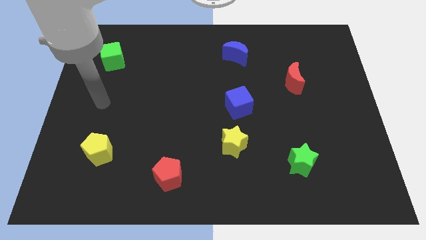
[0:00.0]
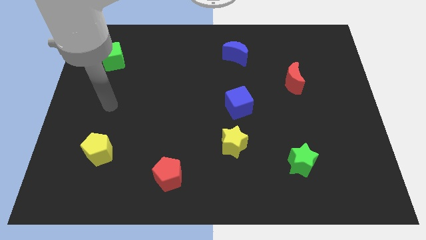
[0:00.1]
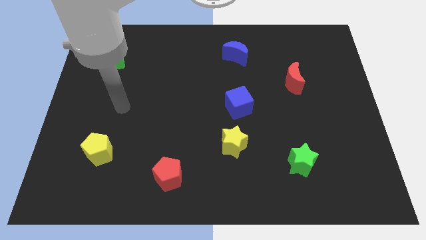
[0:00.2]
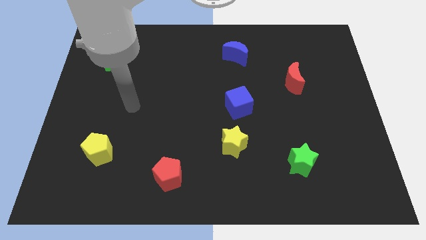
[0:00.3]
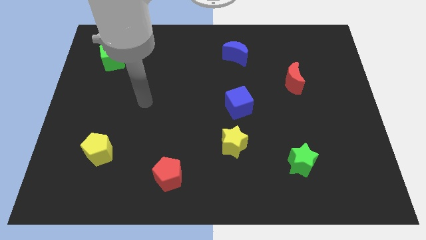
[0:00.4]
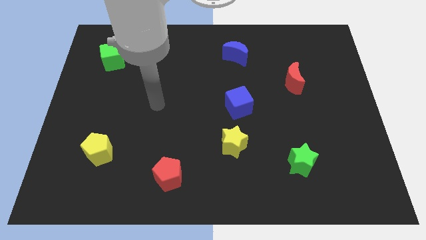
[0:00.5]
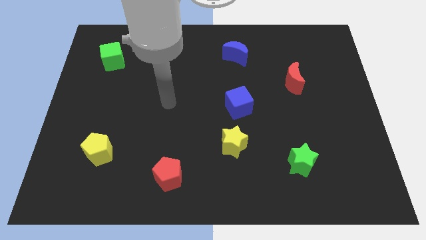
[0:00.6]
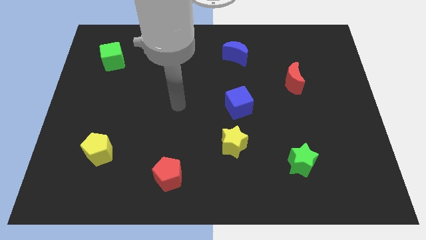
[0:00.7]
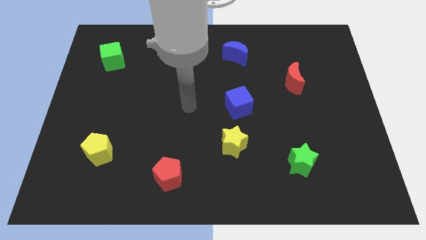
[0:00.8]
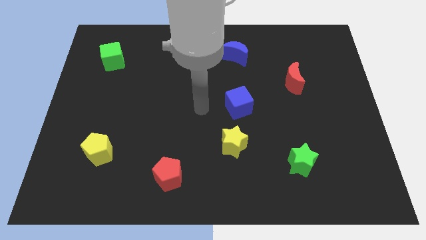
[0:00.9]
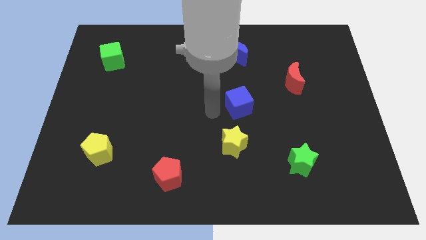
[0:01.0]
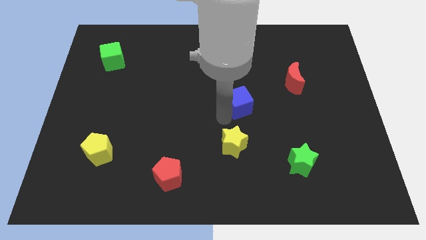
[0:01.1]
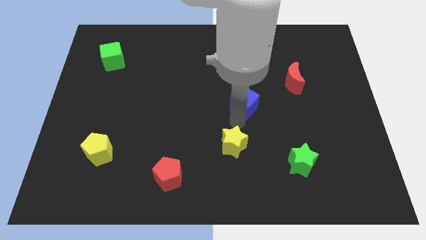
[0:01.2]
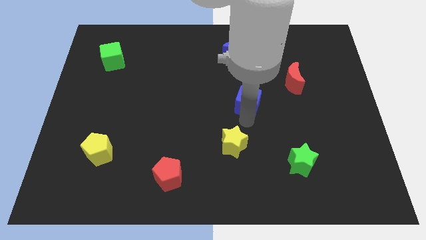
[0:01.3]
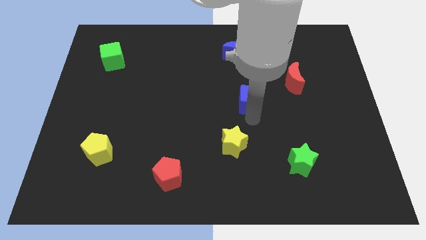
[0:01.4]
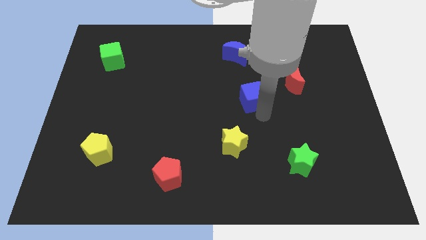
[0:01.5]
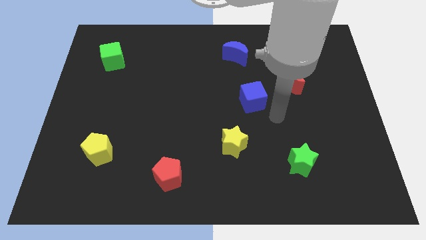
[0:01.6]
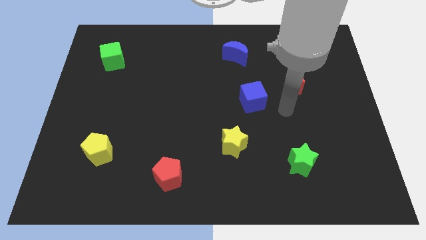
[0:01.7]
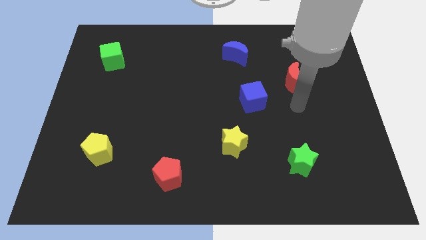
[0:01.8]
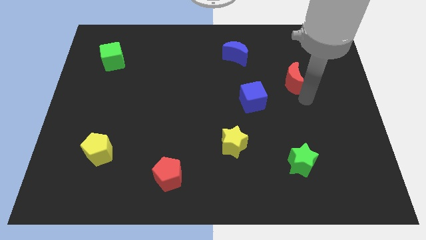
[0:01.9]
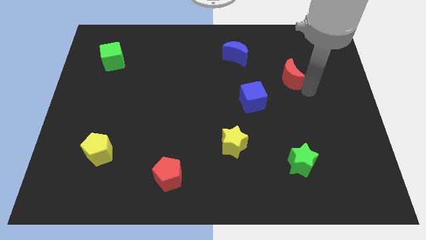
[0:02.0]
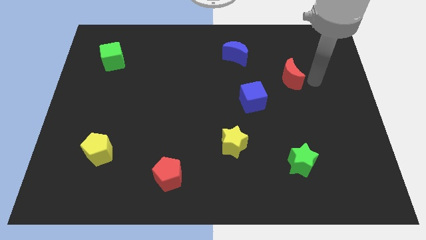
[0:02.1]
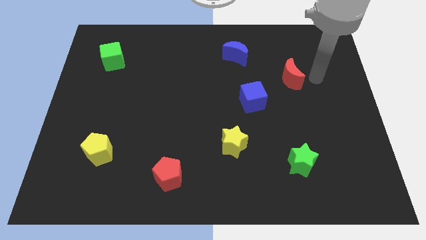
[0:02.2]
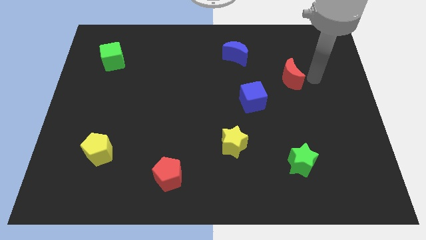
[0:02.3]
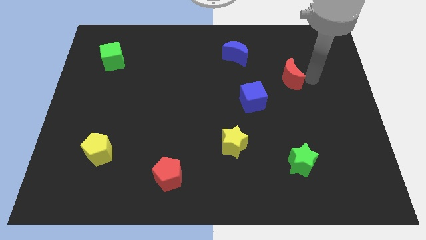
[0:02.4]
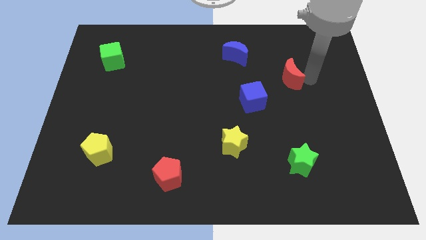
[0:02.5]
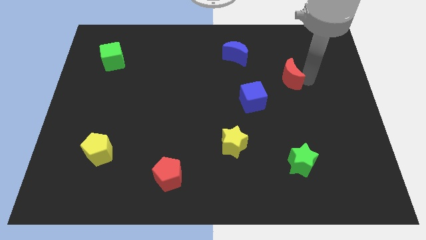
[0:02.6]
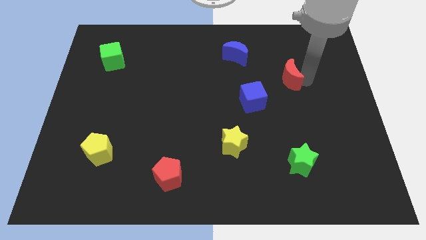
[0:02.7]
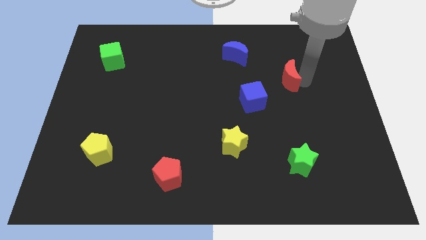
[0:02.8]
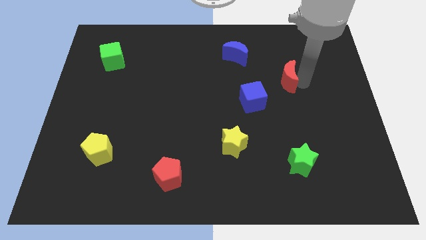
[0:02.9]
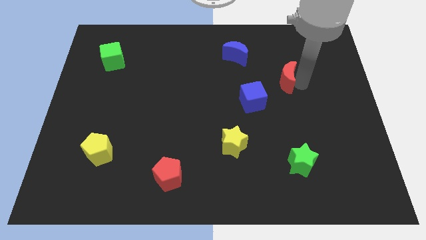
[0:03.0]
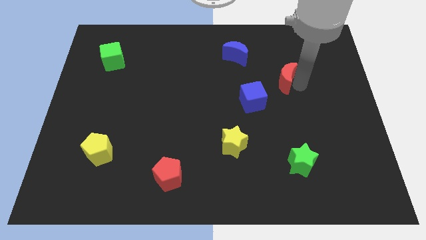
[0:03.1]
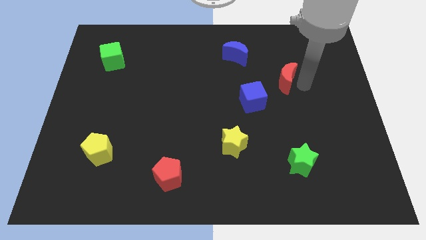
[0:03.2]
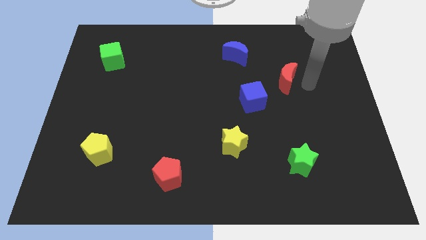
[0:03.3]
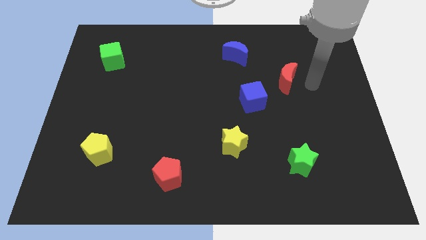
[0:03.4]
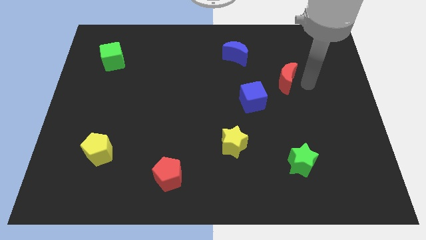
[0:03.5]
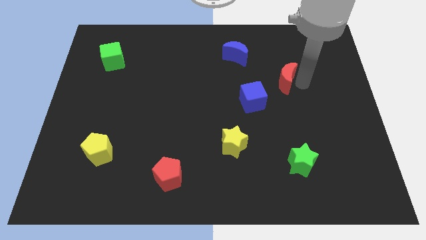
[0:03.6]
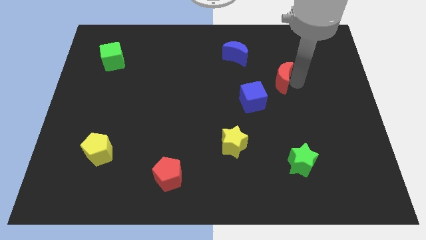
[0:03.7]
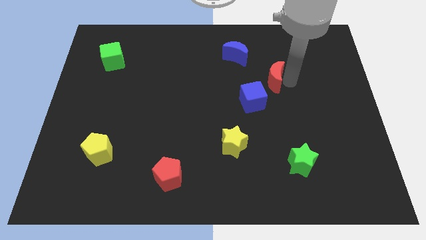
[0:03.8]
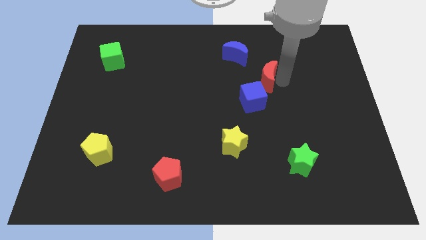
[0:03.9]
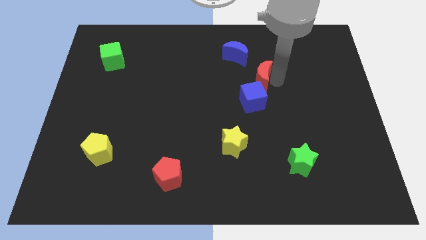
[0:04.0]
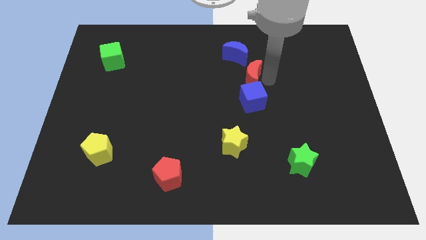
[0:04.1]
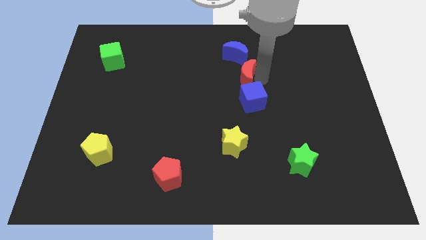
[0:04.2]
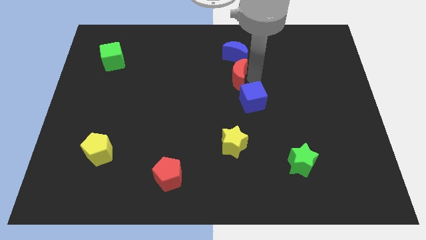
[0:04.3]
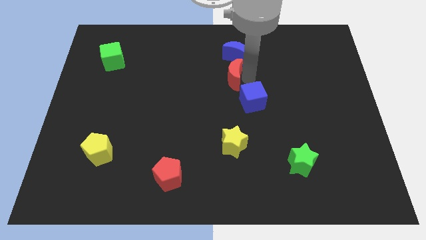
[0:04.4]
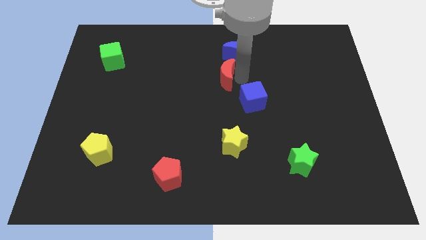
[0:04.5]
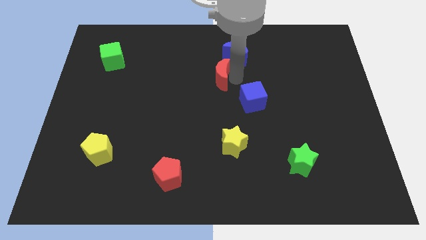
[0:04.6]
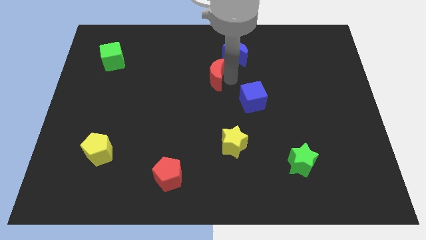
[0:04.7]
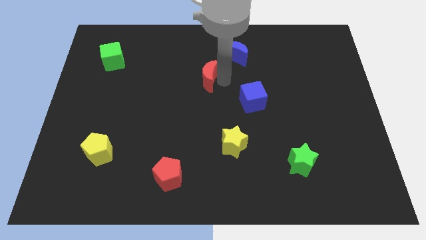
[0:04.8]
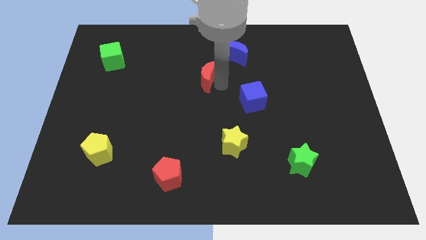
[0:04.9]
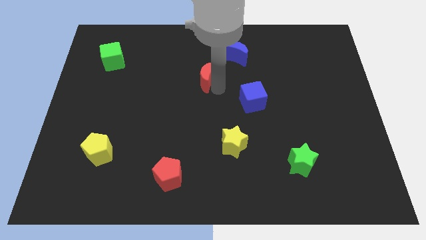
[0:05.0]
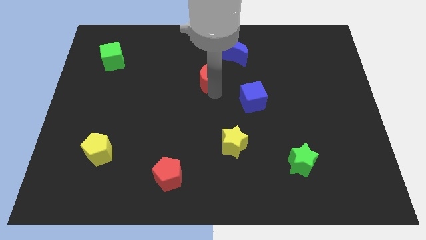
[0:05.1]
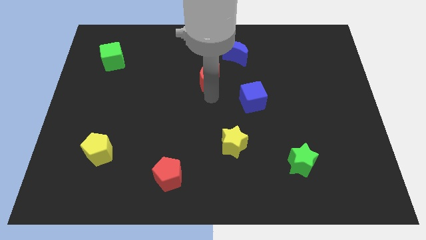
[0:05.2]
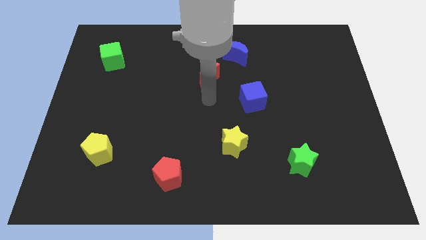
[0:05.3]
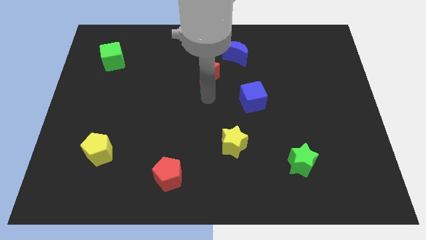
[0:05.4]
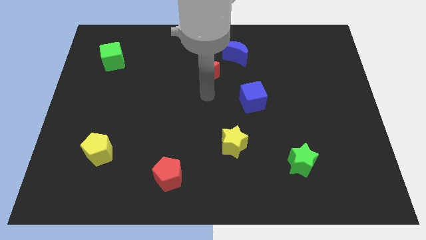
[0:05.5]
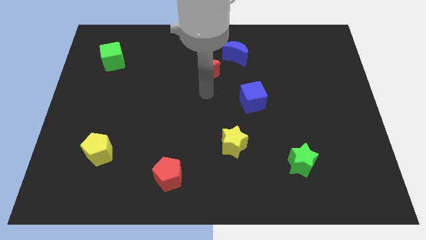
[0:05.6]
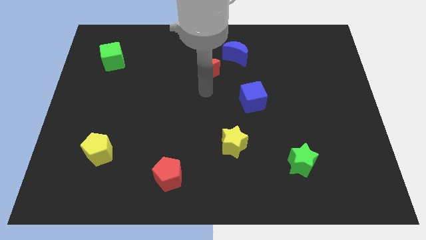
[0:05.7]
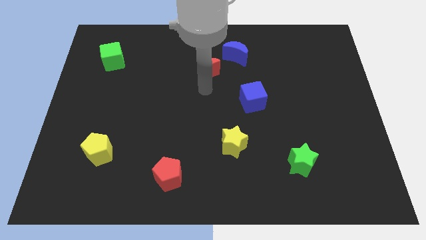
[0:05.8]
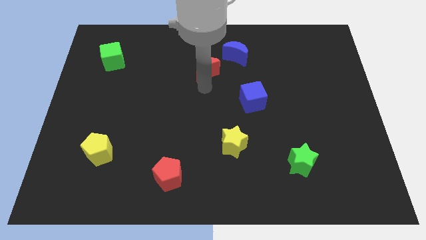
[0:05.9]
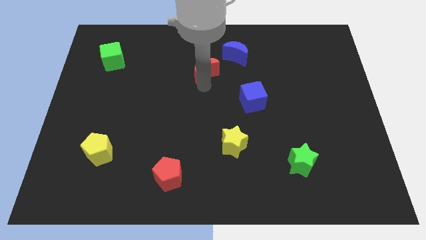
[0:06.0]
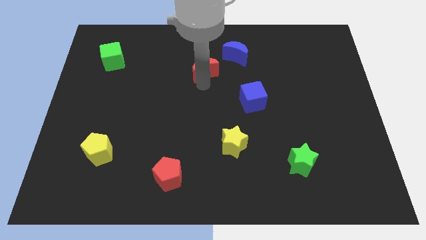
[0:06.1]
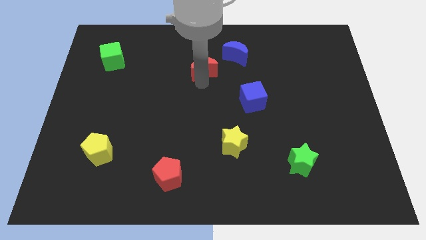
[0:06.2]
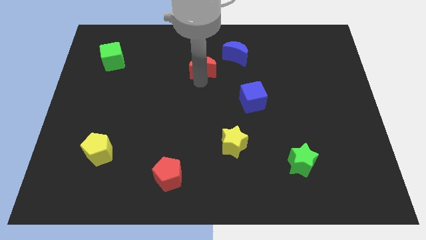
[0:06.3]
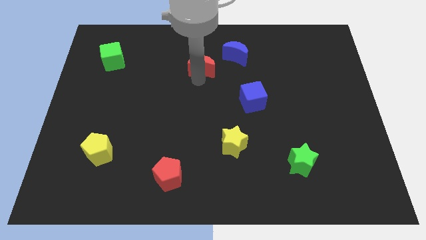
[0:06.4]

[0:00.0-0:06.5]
push the red moon to the left of the blue moon

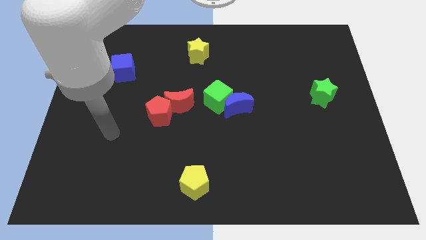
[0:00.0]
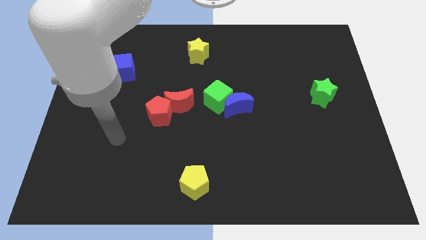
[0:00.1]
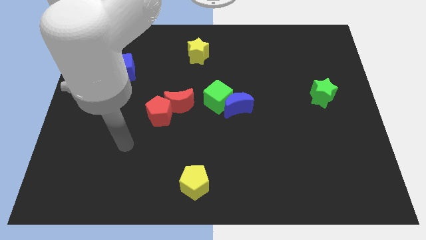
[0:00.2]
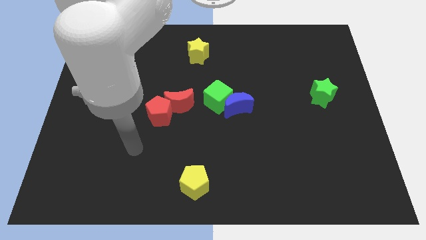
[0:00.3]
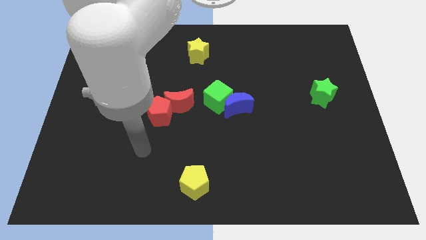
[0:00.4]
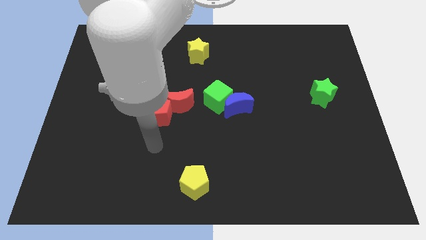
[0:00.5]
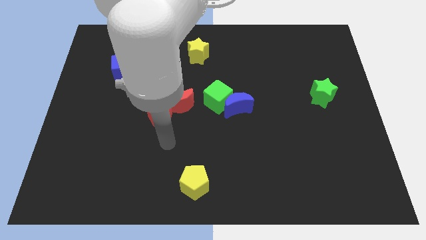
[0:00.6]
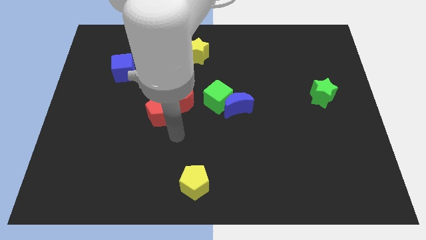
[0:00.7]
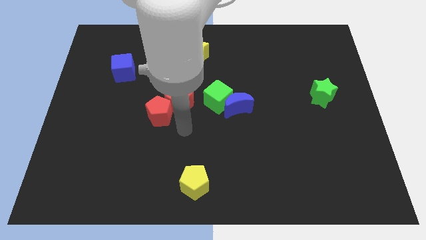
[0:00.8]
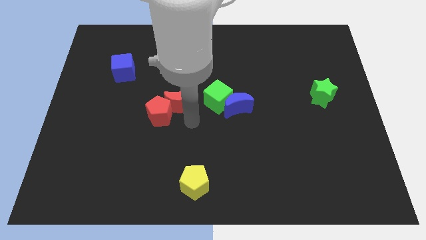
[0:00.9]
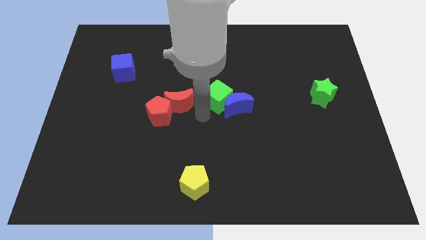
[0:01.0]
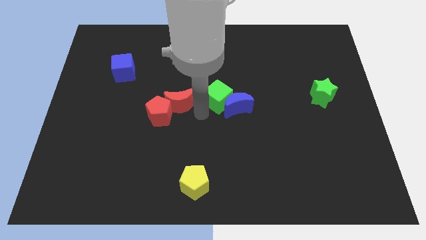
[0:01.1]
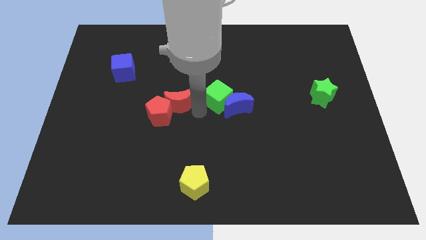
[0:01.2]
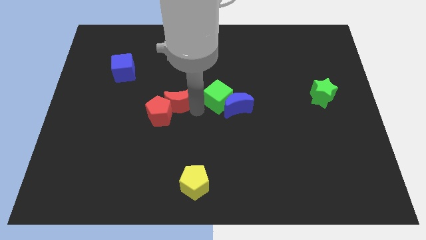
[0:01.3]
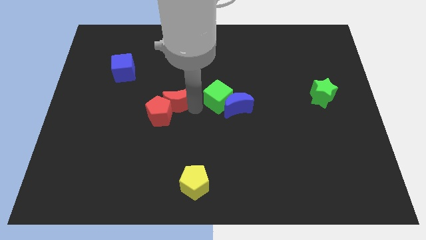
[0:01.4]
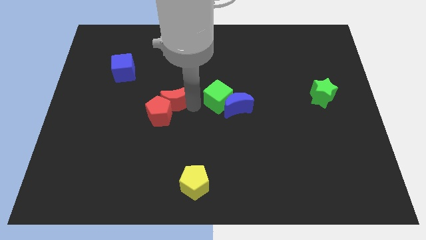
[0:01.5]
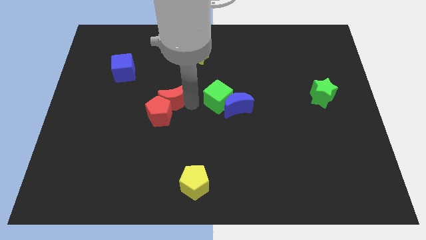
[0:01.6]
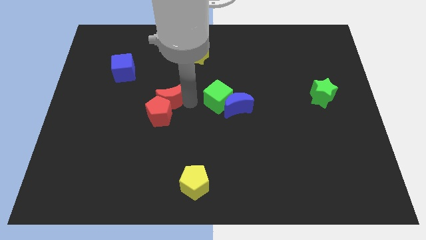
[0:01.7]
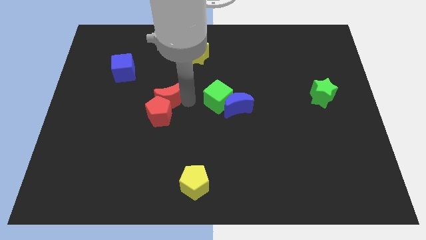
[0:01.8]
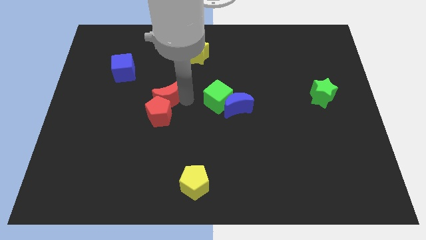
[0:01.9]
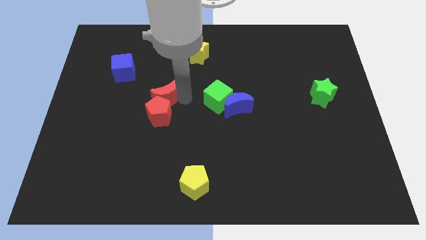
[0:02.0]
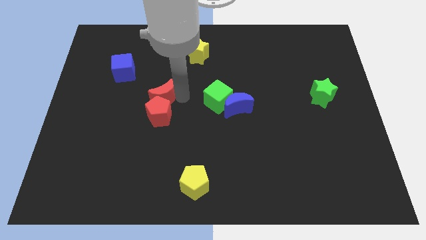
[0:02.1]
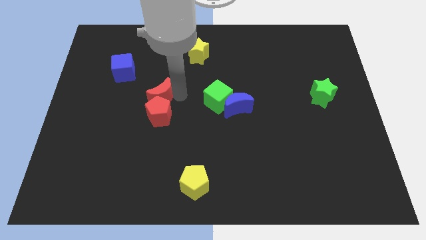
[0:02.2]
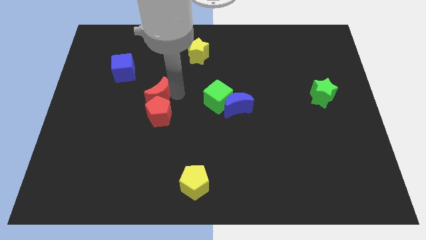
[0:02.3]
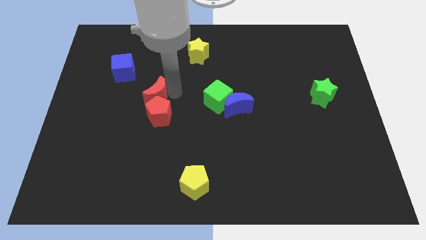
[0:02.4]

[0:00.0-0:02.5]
slide the red moon to the bottom right of the blue cube
